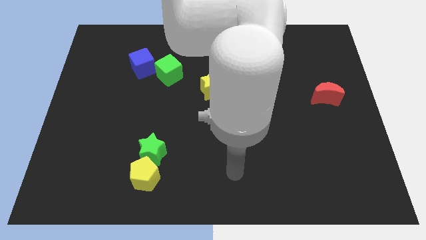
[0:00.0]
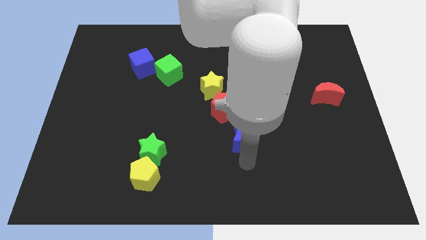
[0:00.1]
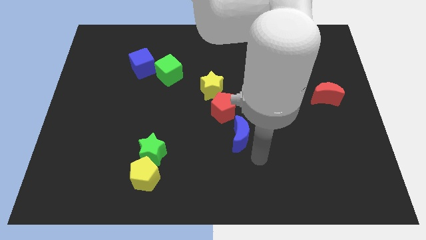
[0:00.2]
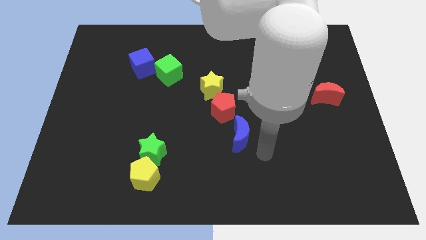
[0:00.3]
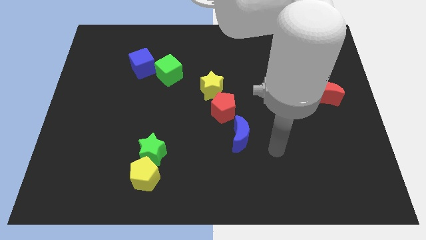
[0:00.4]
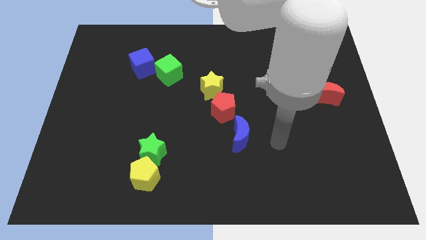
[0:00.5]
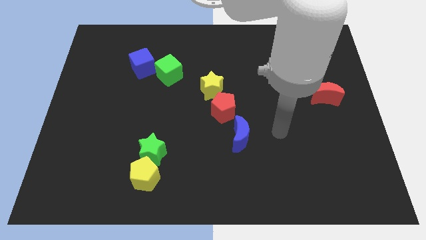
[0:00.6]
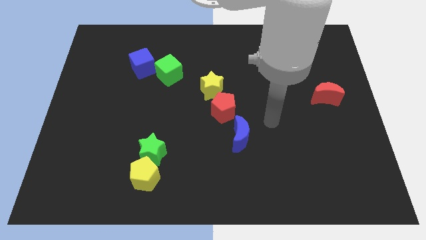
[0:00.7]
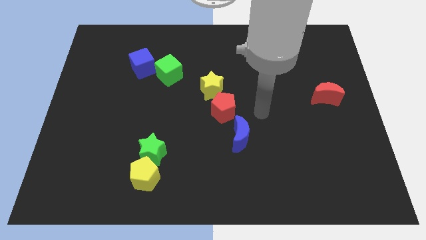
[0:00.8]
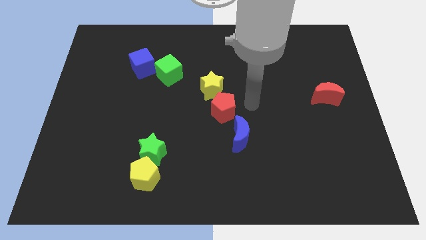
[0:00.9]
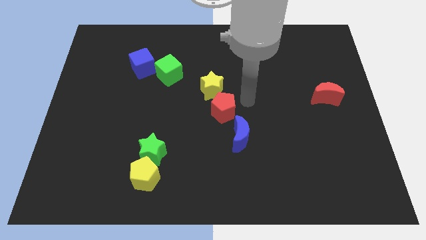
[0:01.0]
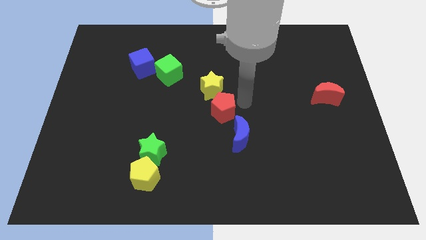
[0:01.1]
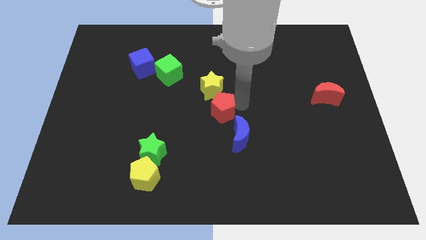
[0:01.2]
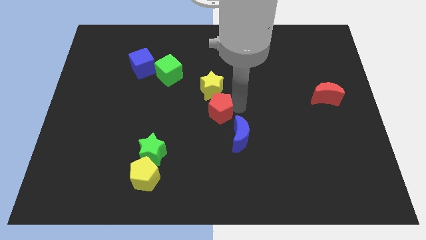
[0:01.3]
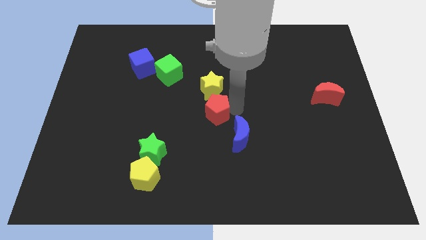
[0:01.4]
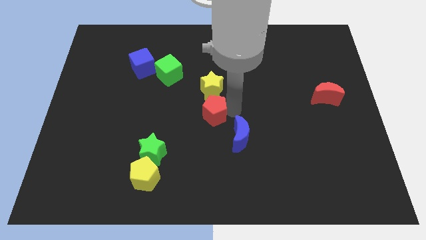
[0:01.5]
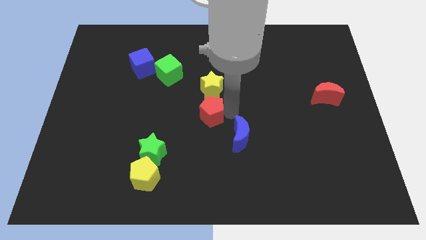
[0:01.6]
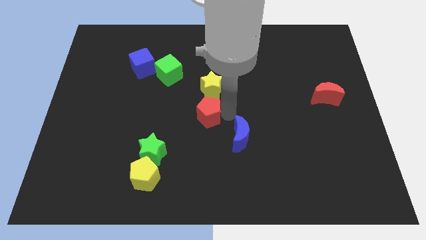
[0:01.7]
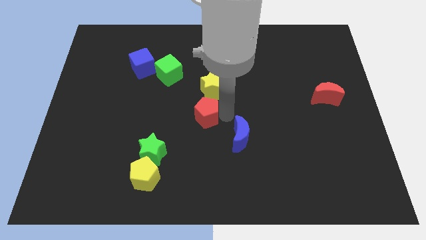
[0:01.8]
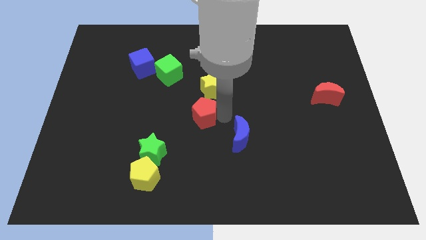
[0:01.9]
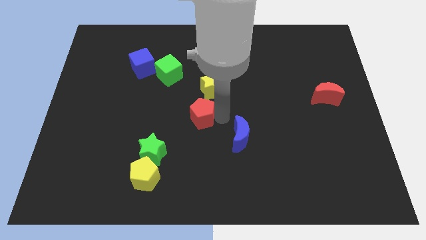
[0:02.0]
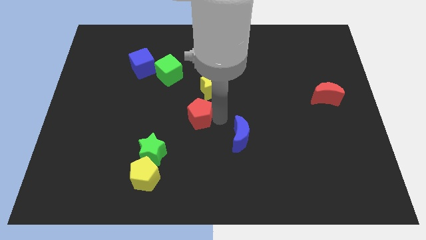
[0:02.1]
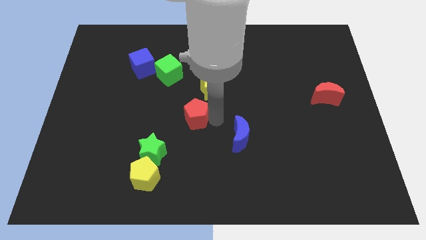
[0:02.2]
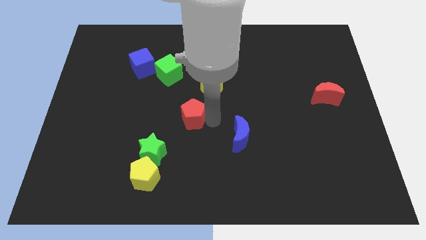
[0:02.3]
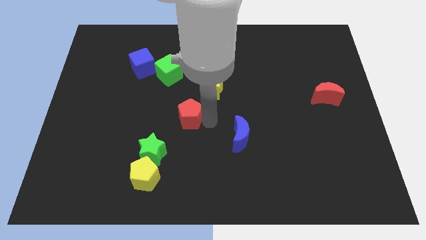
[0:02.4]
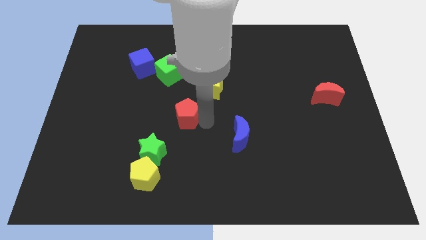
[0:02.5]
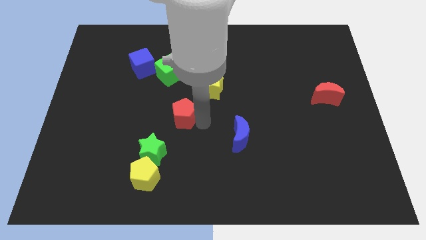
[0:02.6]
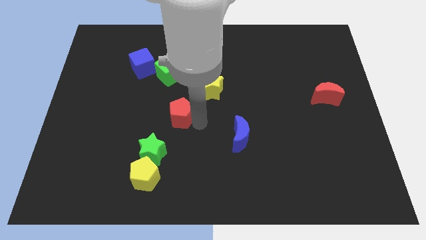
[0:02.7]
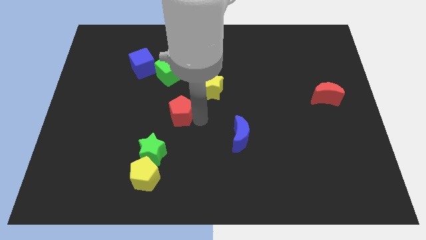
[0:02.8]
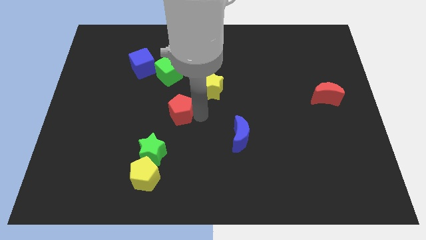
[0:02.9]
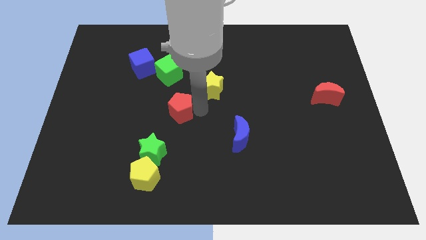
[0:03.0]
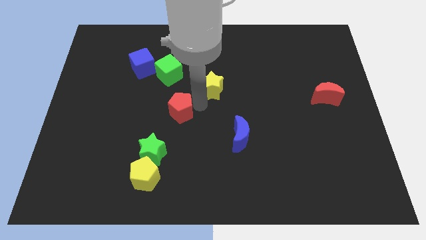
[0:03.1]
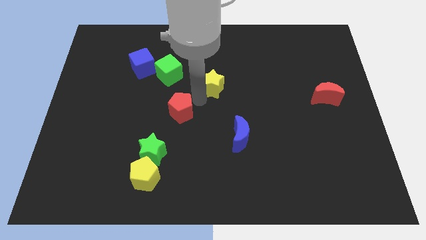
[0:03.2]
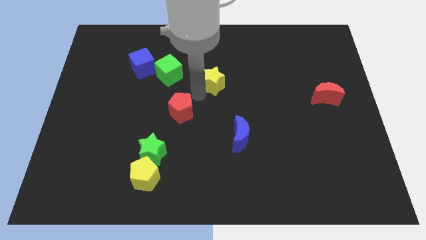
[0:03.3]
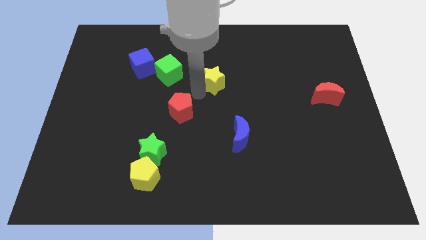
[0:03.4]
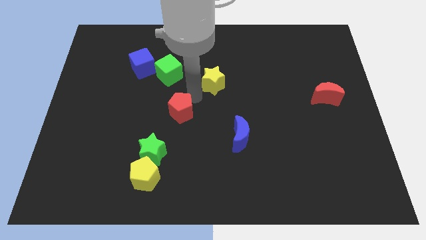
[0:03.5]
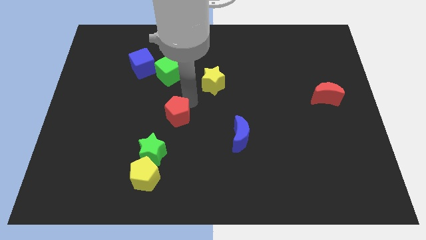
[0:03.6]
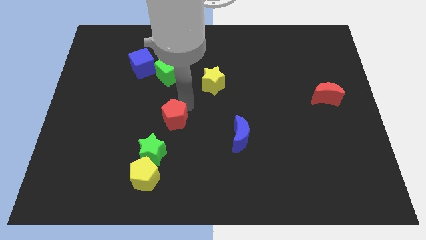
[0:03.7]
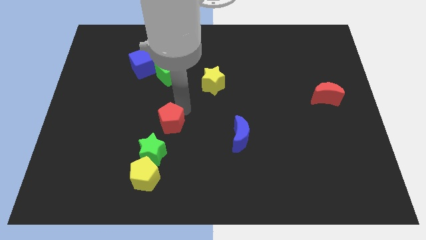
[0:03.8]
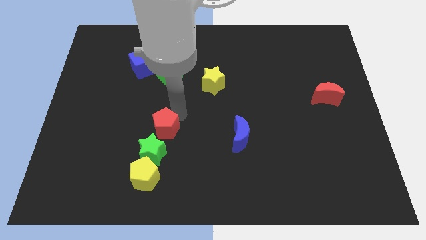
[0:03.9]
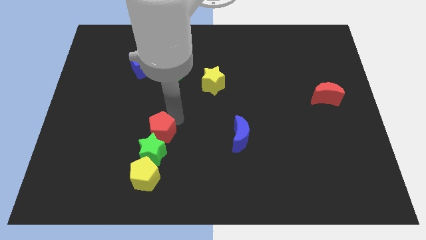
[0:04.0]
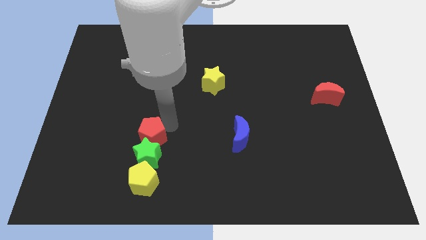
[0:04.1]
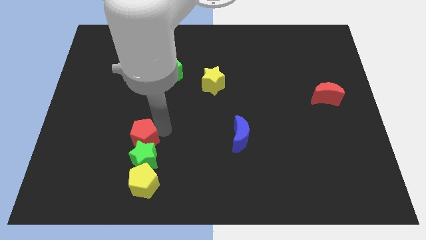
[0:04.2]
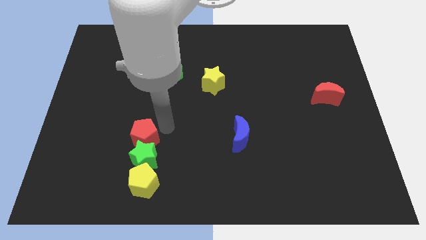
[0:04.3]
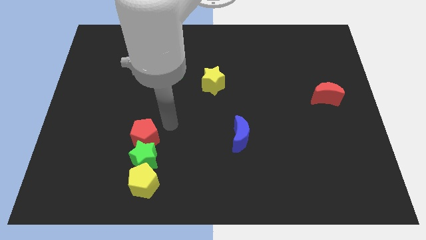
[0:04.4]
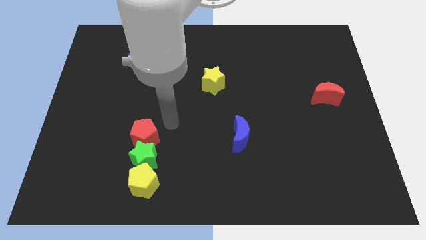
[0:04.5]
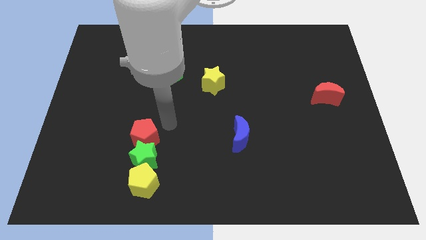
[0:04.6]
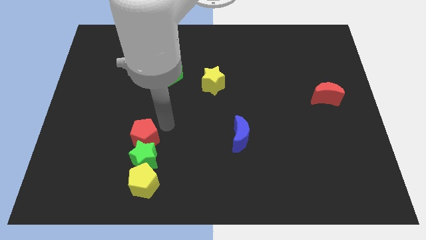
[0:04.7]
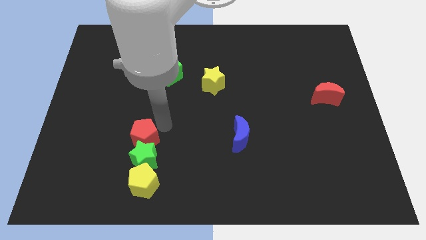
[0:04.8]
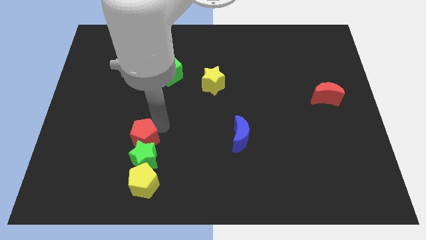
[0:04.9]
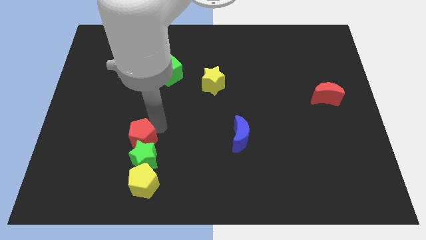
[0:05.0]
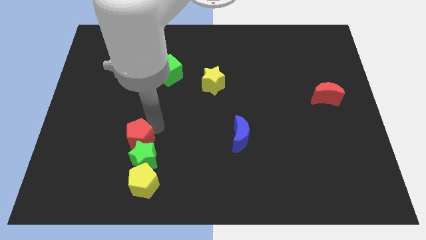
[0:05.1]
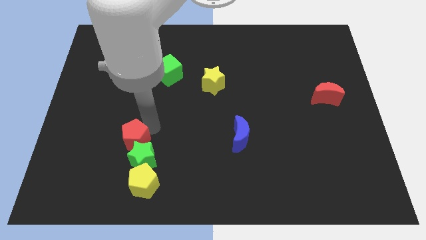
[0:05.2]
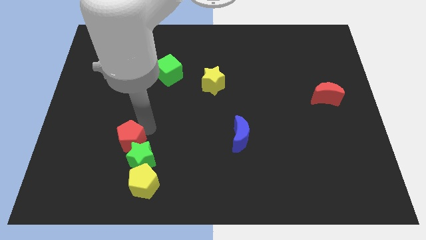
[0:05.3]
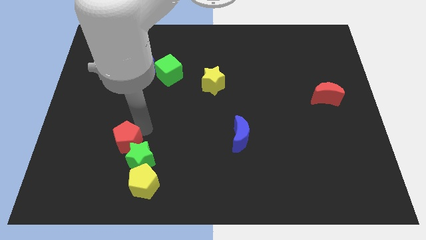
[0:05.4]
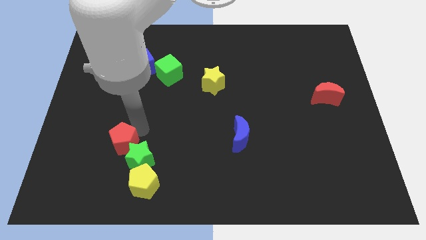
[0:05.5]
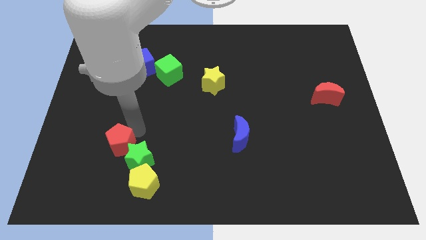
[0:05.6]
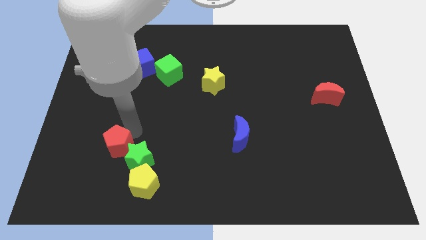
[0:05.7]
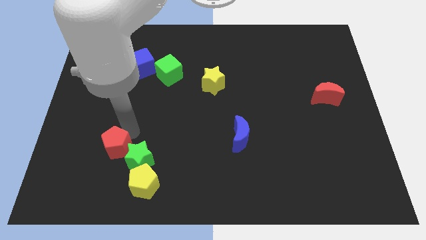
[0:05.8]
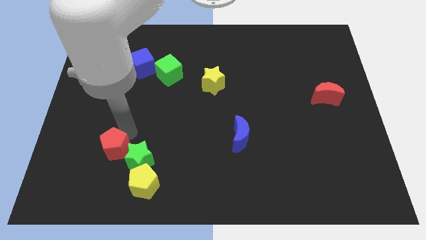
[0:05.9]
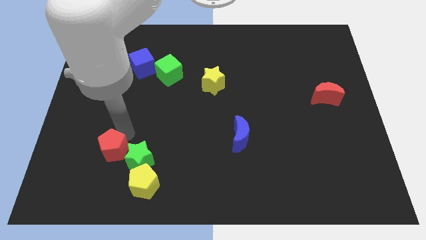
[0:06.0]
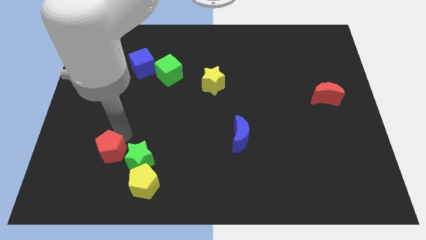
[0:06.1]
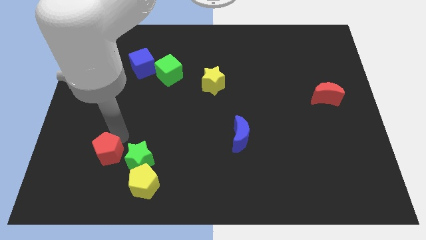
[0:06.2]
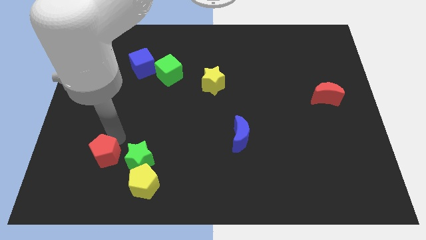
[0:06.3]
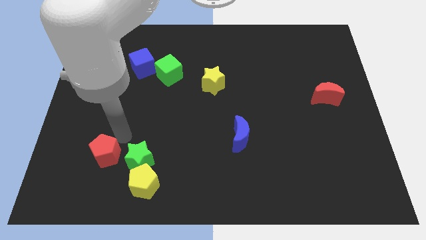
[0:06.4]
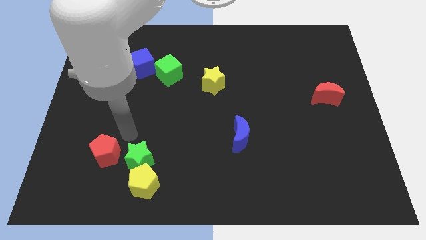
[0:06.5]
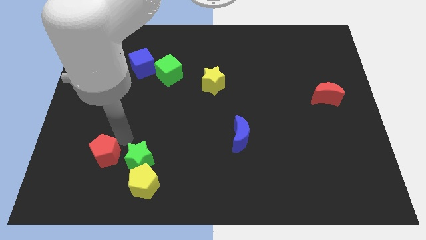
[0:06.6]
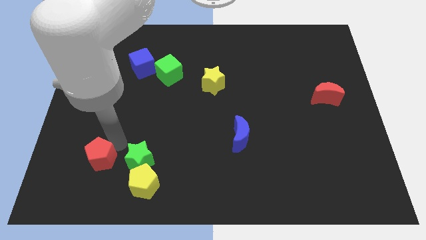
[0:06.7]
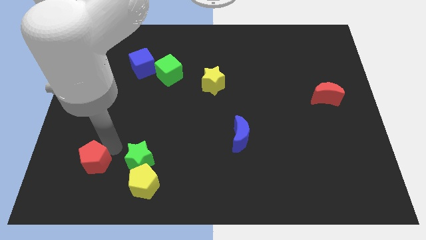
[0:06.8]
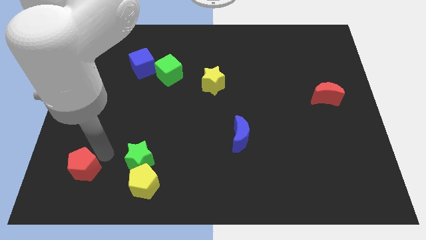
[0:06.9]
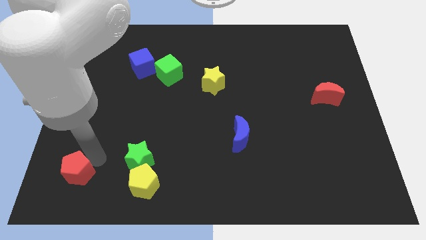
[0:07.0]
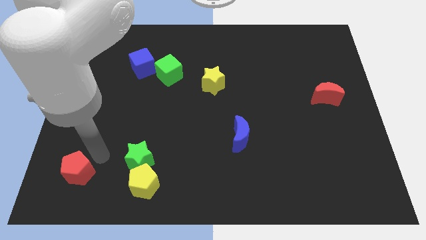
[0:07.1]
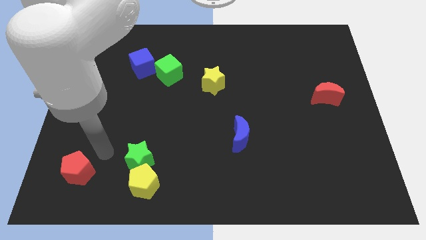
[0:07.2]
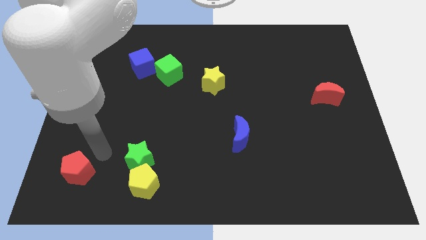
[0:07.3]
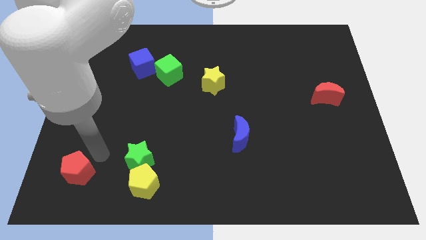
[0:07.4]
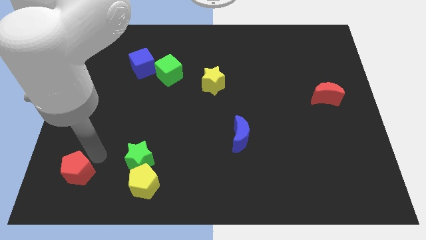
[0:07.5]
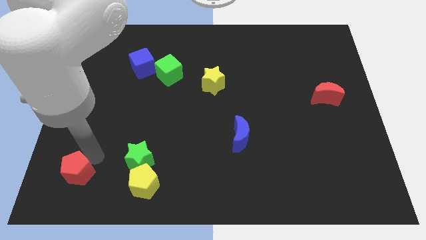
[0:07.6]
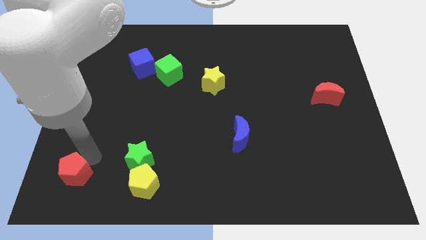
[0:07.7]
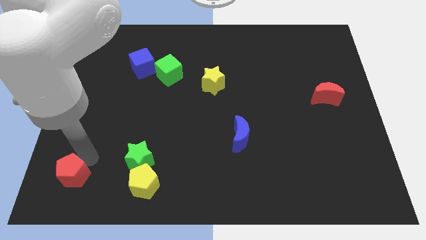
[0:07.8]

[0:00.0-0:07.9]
push the red pentagon to the lower left corner
